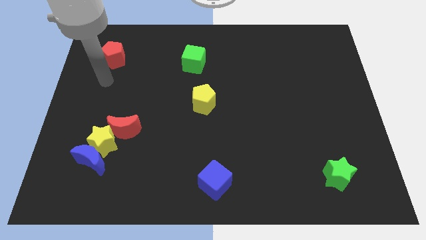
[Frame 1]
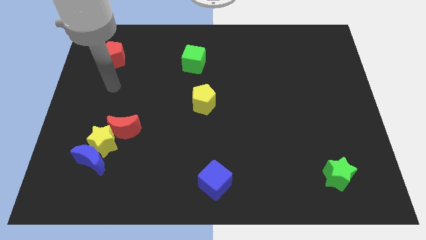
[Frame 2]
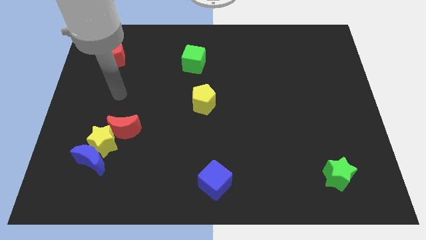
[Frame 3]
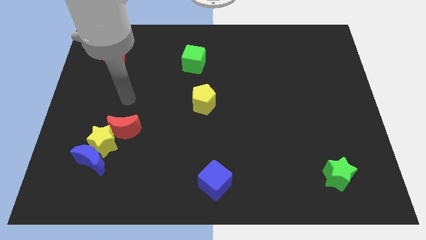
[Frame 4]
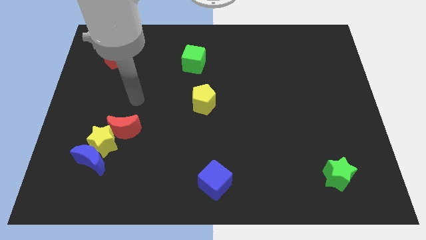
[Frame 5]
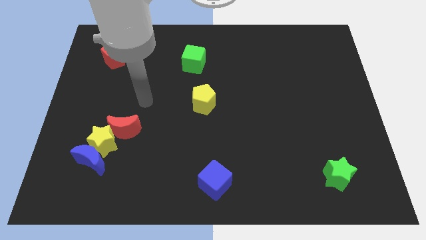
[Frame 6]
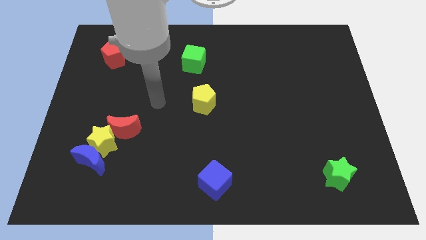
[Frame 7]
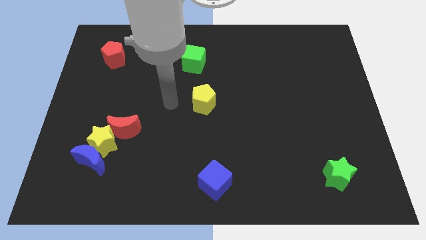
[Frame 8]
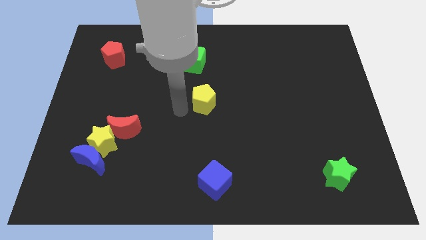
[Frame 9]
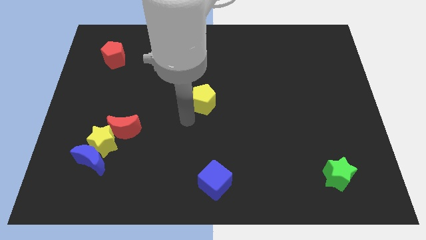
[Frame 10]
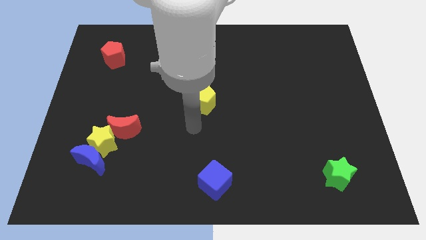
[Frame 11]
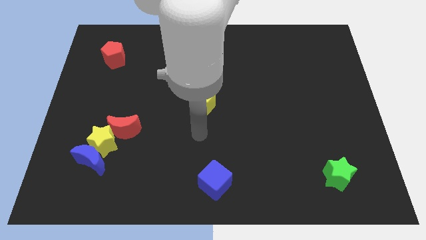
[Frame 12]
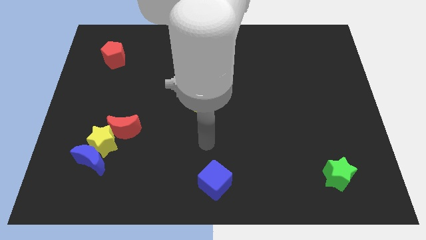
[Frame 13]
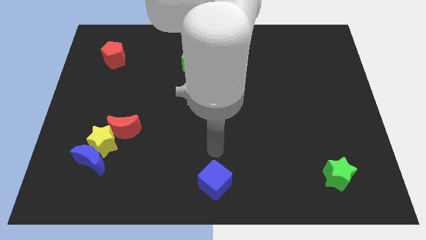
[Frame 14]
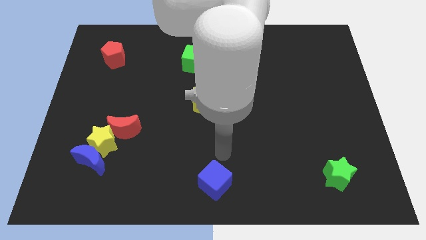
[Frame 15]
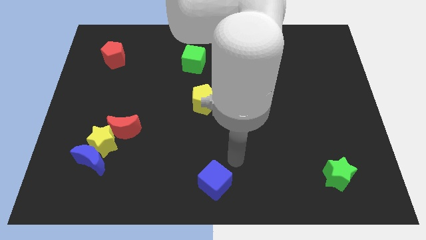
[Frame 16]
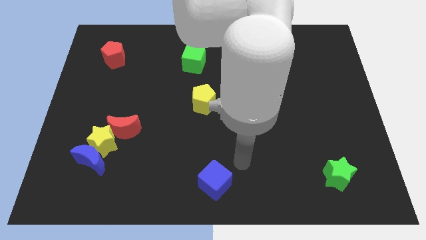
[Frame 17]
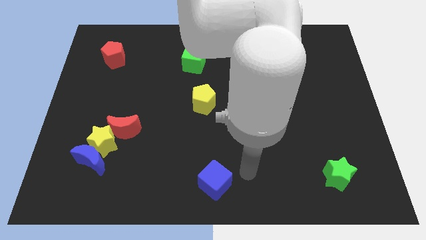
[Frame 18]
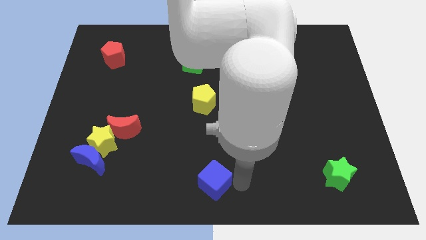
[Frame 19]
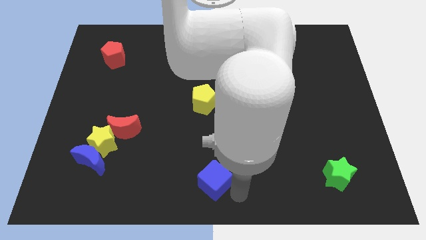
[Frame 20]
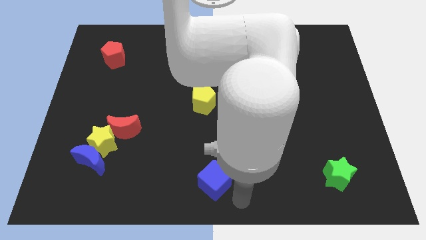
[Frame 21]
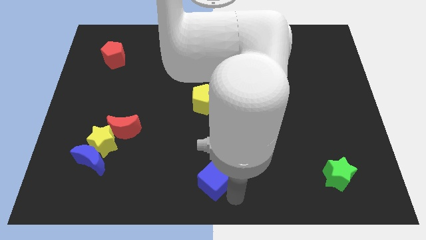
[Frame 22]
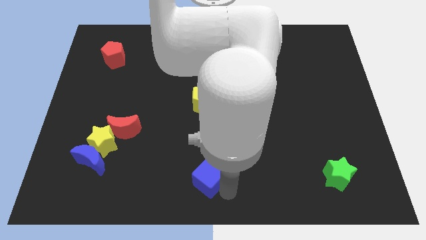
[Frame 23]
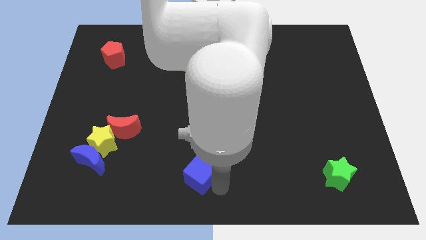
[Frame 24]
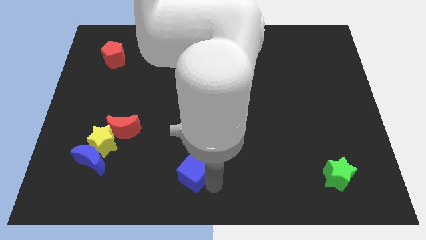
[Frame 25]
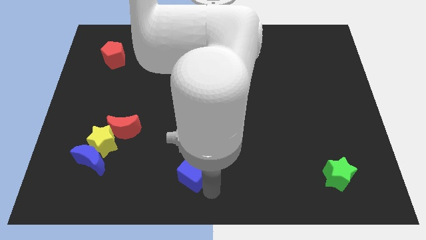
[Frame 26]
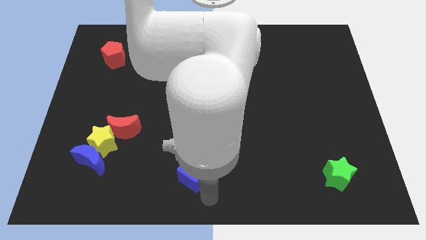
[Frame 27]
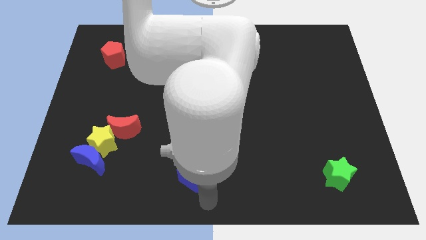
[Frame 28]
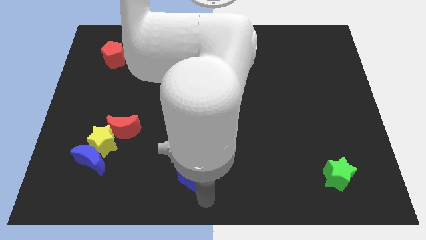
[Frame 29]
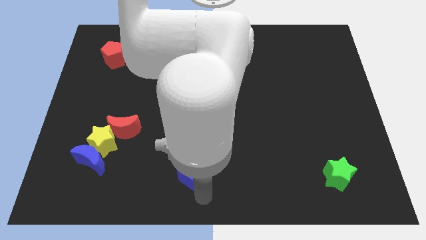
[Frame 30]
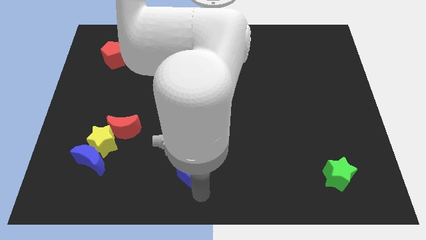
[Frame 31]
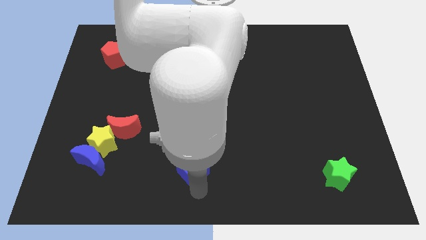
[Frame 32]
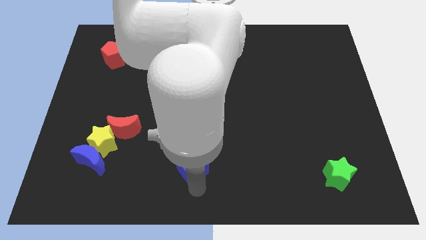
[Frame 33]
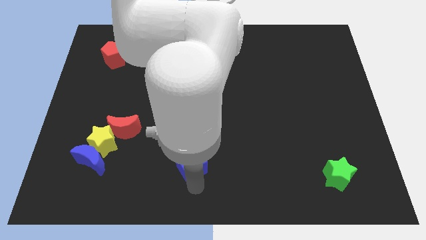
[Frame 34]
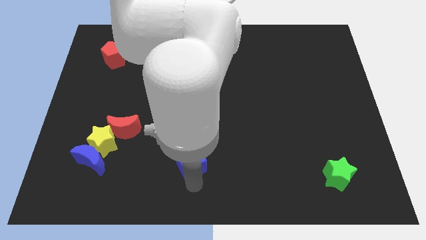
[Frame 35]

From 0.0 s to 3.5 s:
move the blue cube a little bit upwards and to the left diagonally

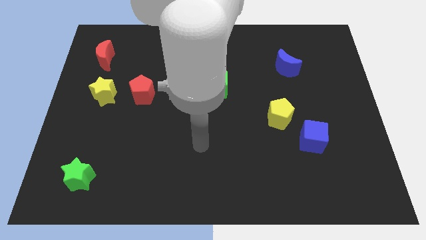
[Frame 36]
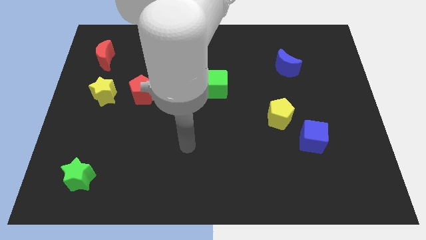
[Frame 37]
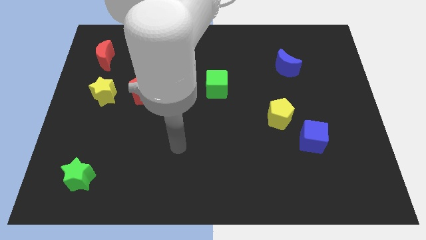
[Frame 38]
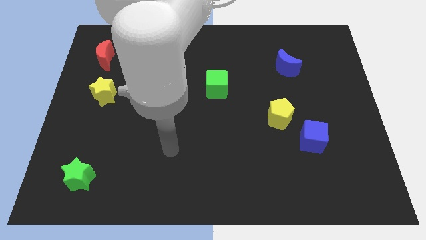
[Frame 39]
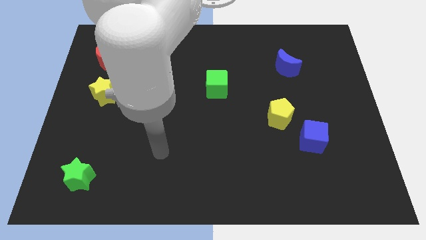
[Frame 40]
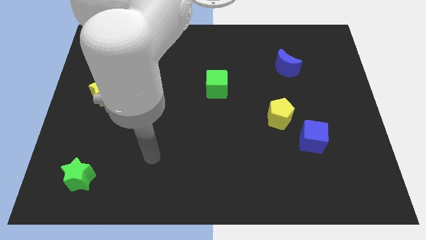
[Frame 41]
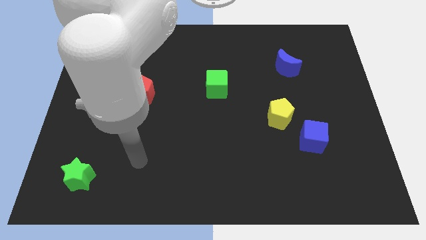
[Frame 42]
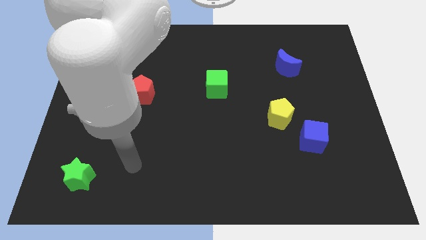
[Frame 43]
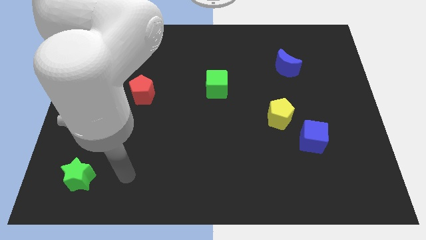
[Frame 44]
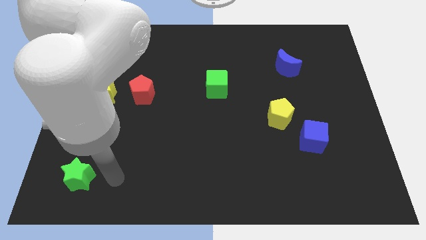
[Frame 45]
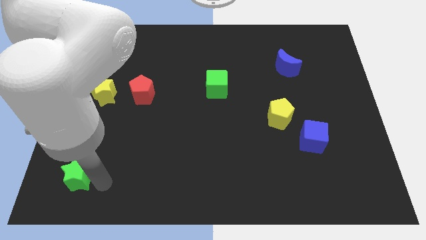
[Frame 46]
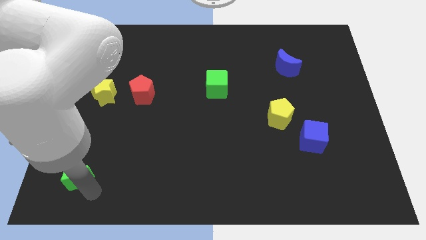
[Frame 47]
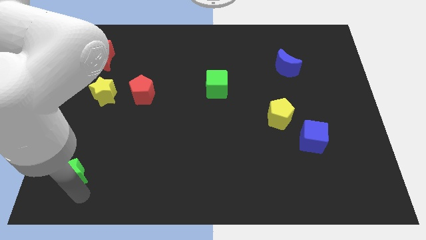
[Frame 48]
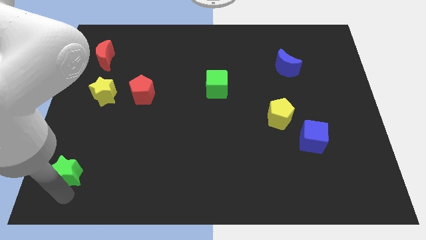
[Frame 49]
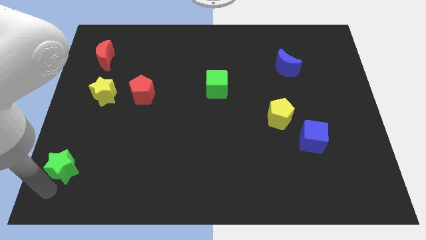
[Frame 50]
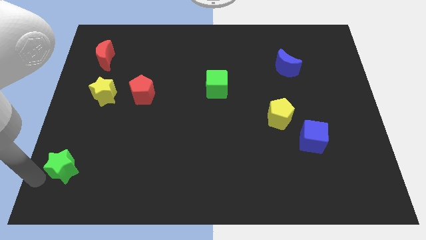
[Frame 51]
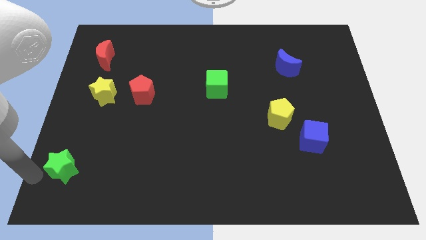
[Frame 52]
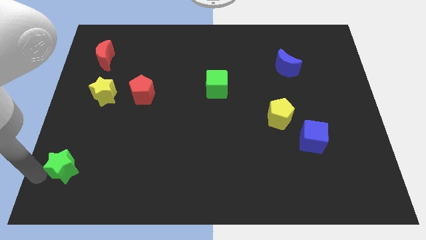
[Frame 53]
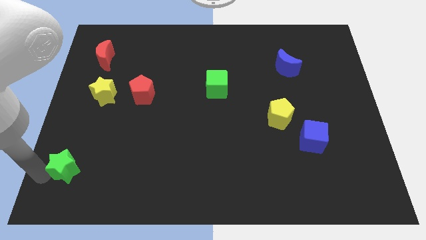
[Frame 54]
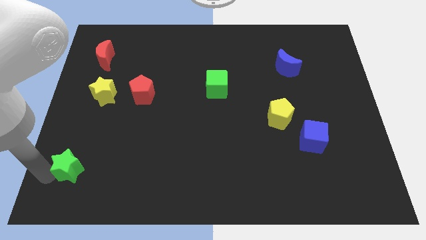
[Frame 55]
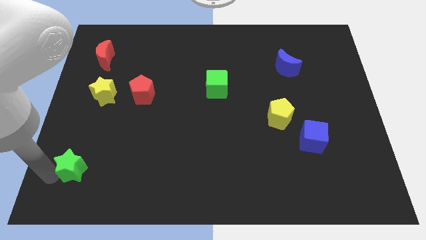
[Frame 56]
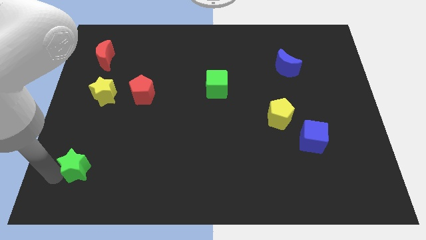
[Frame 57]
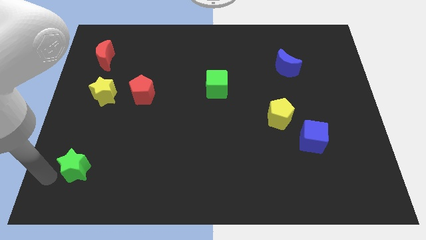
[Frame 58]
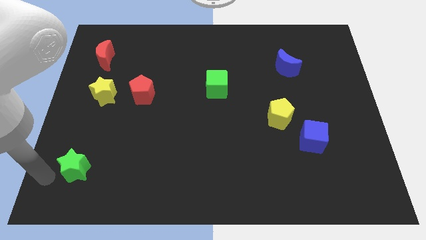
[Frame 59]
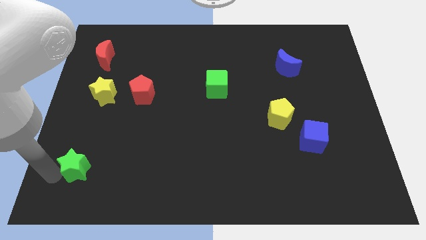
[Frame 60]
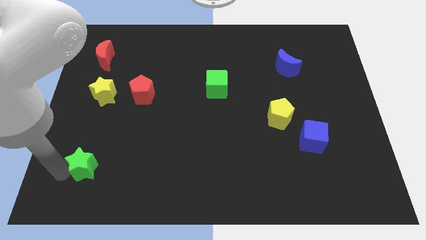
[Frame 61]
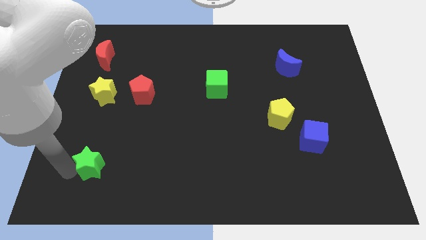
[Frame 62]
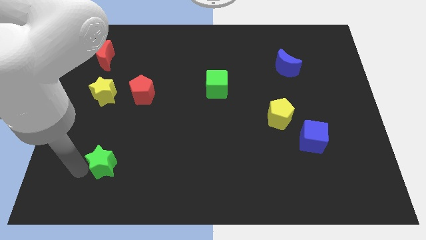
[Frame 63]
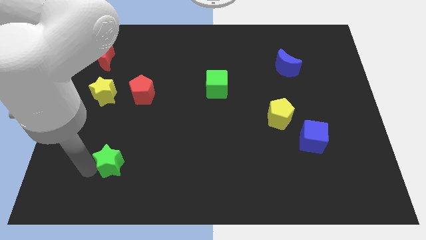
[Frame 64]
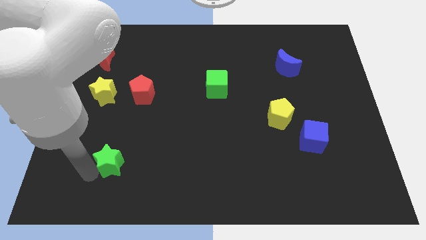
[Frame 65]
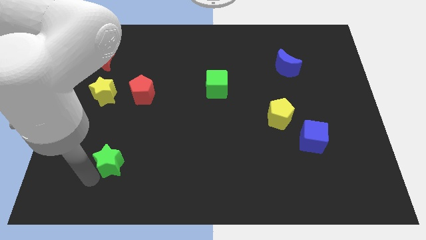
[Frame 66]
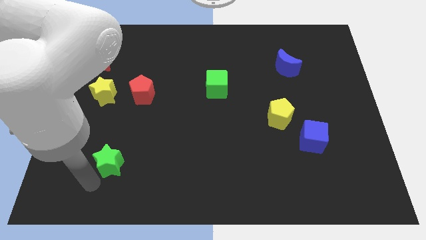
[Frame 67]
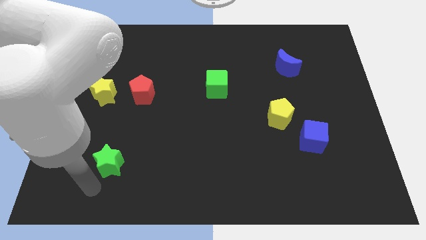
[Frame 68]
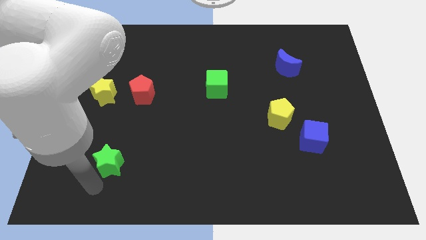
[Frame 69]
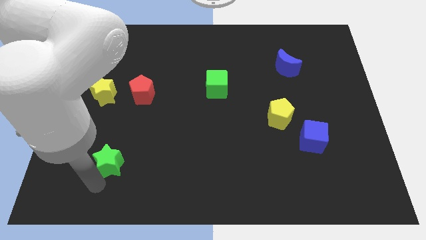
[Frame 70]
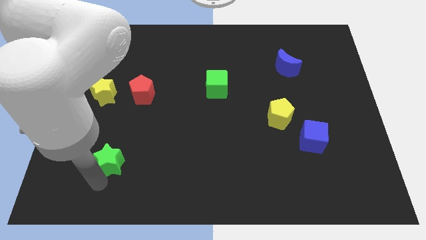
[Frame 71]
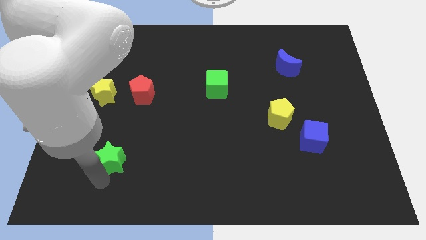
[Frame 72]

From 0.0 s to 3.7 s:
push the green star up and right diagonally a little

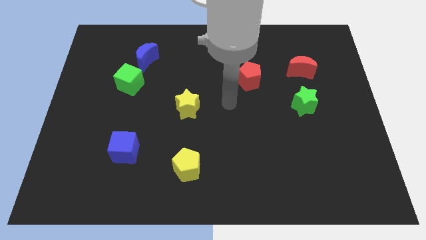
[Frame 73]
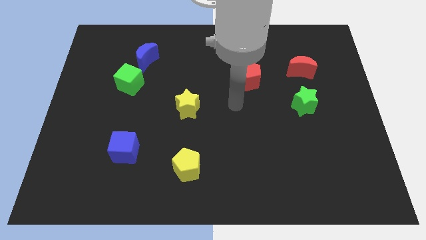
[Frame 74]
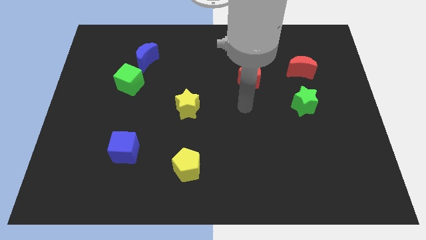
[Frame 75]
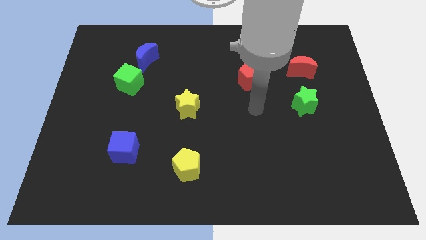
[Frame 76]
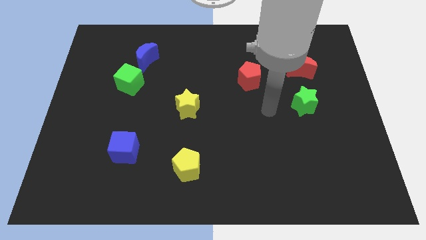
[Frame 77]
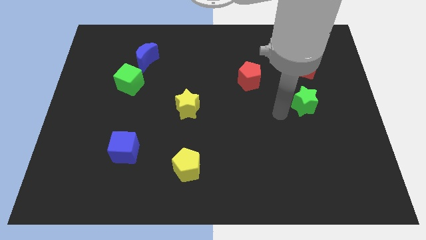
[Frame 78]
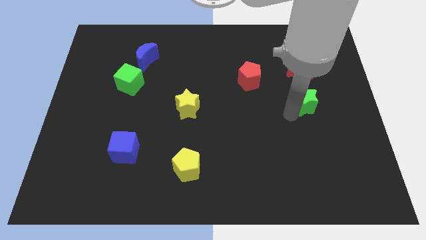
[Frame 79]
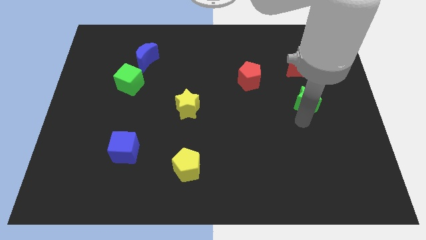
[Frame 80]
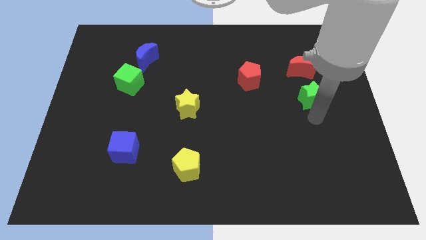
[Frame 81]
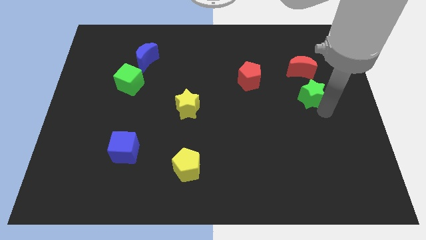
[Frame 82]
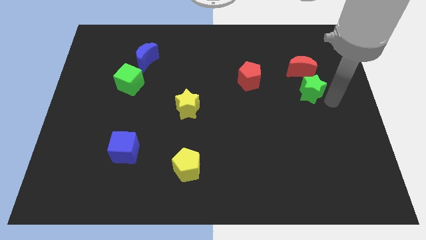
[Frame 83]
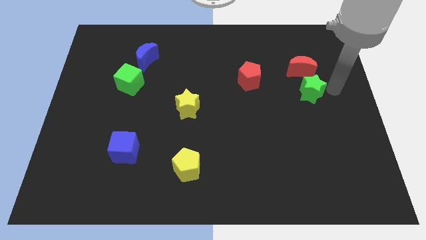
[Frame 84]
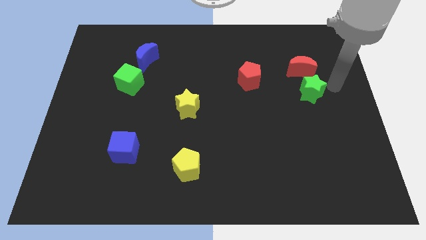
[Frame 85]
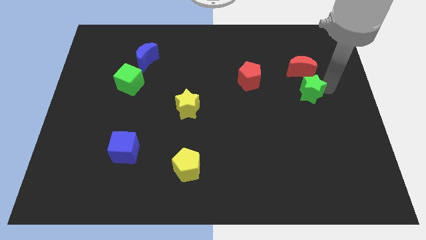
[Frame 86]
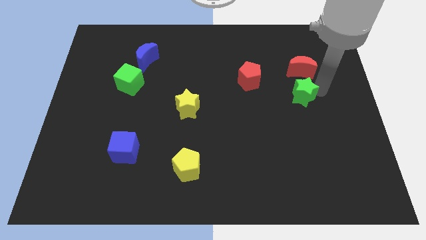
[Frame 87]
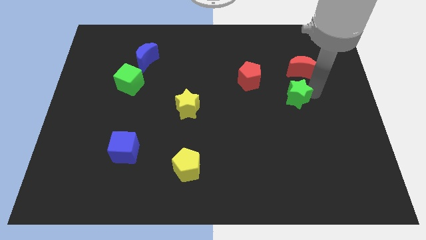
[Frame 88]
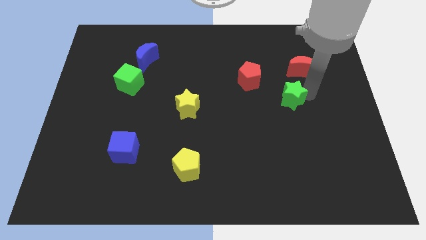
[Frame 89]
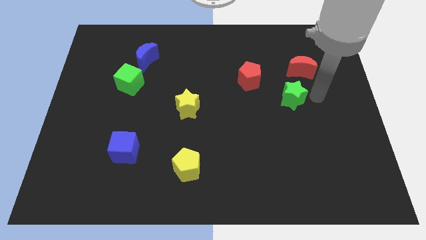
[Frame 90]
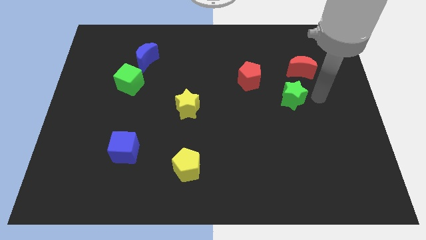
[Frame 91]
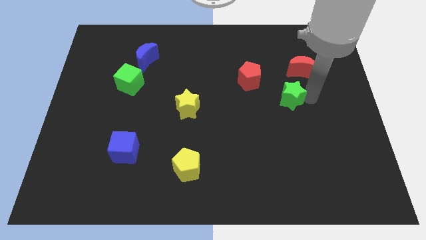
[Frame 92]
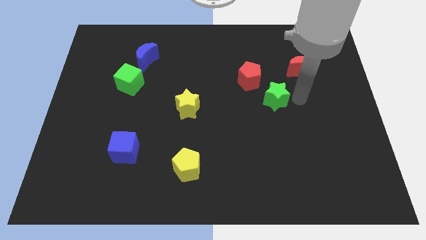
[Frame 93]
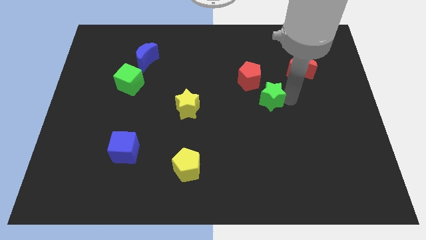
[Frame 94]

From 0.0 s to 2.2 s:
move the green star a little left
